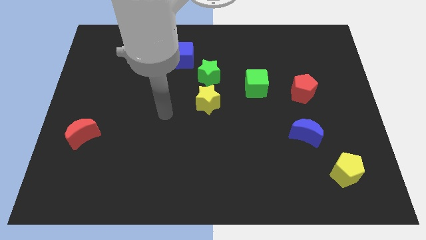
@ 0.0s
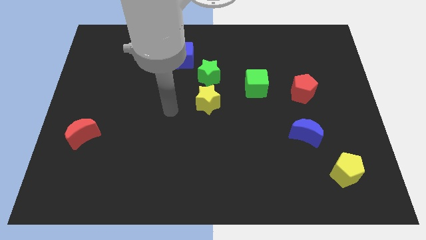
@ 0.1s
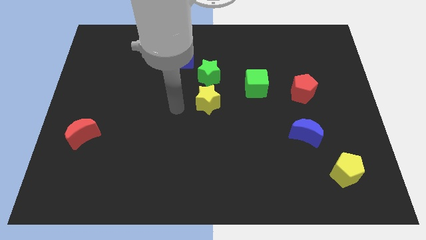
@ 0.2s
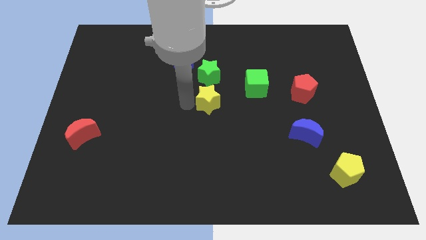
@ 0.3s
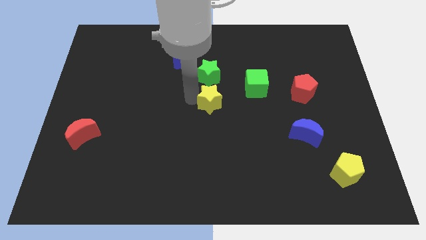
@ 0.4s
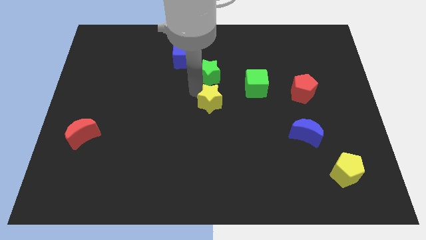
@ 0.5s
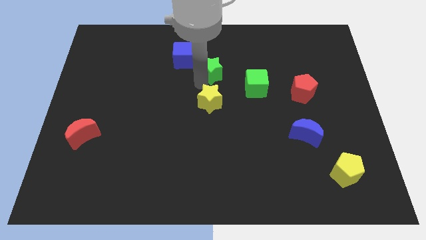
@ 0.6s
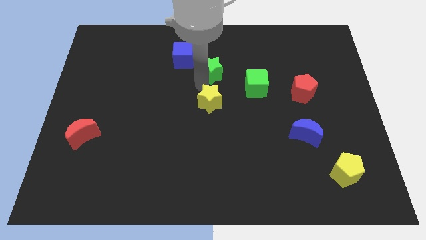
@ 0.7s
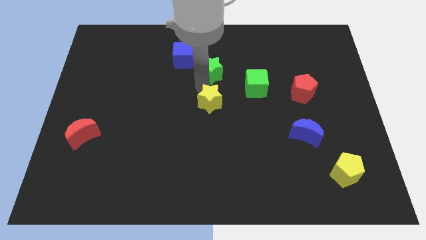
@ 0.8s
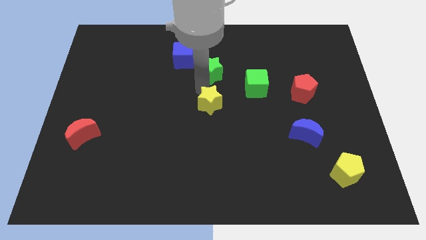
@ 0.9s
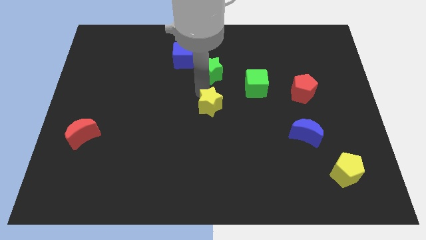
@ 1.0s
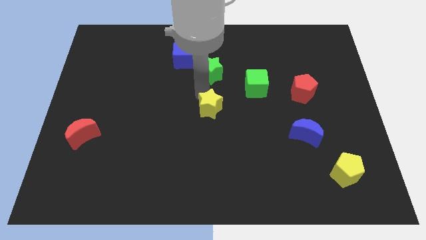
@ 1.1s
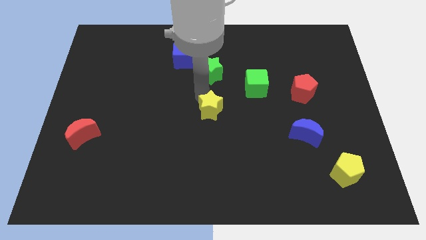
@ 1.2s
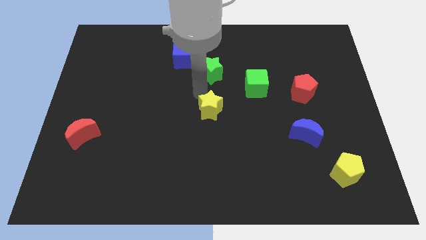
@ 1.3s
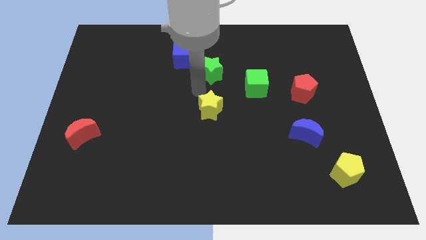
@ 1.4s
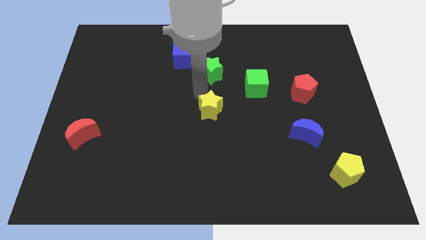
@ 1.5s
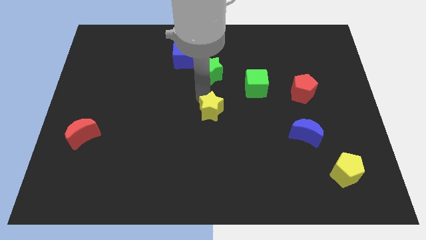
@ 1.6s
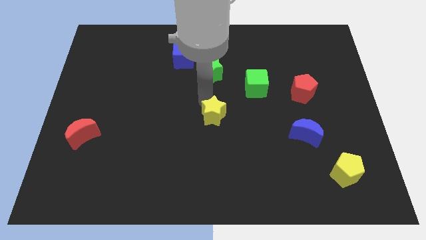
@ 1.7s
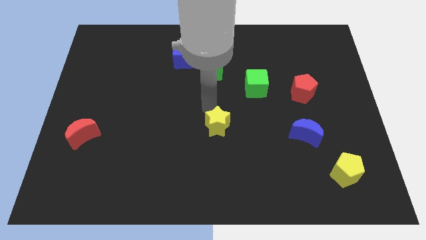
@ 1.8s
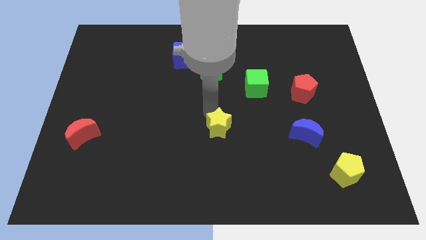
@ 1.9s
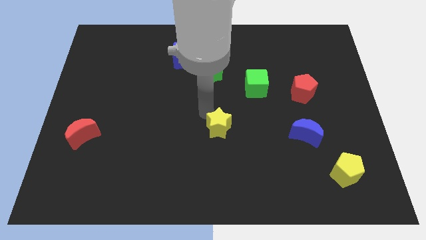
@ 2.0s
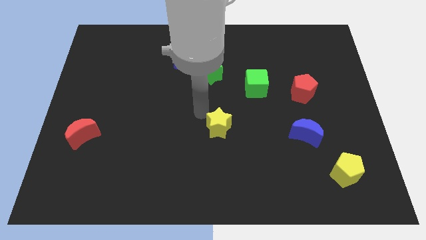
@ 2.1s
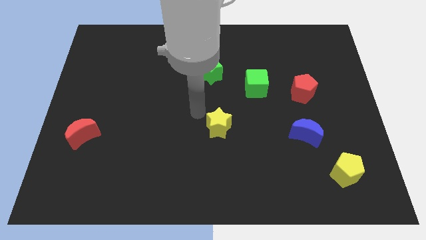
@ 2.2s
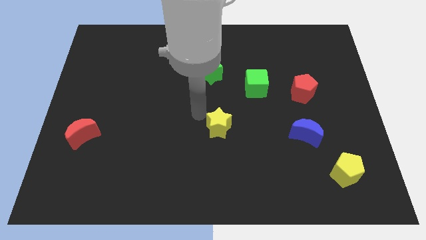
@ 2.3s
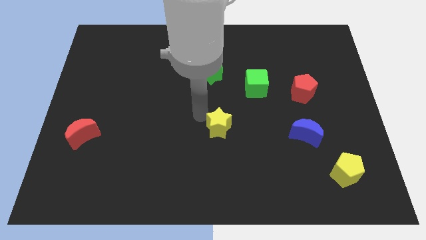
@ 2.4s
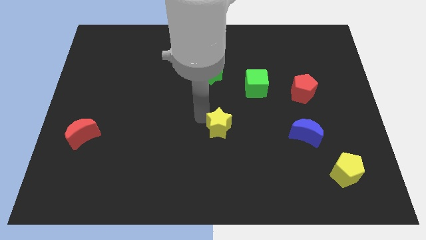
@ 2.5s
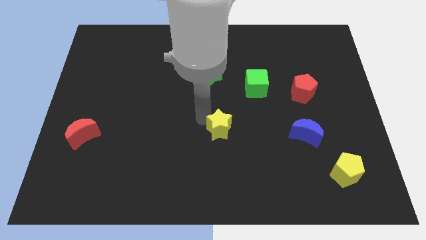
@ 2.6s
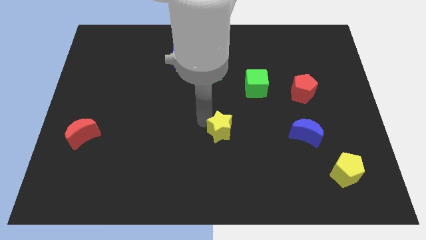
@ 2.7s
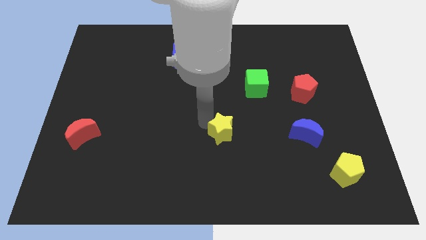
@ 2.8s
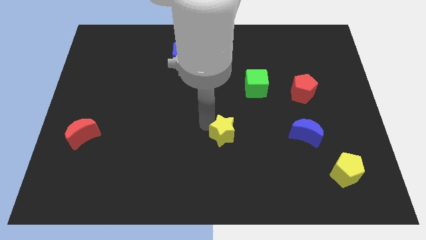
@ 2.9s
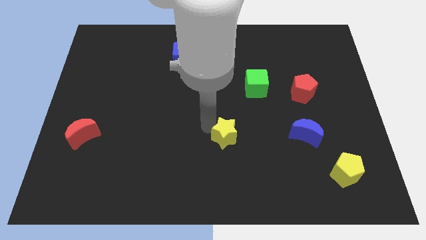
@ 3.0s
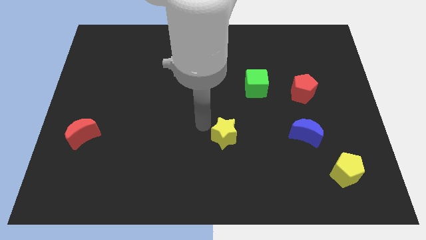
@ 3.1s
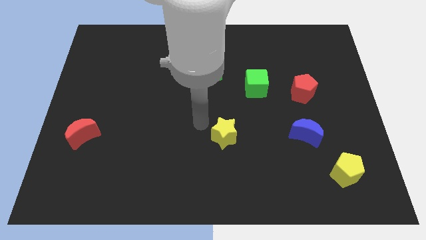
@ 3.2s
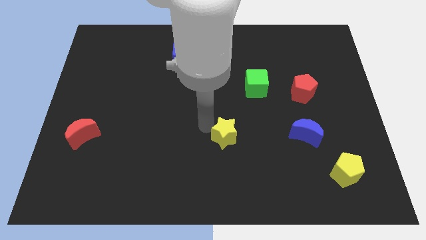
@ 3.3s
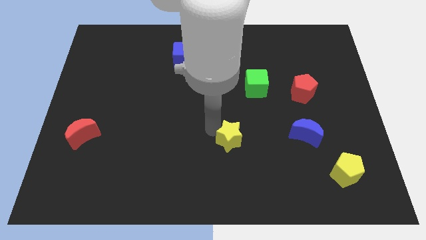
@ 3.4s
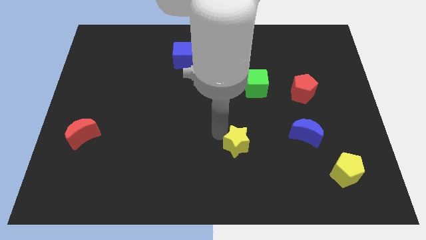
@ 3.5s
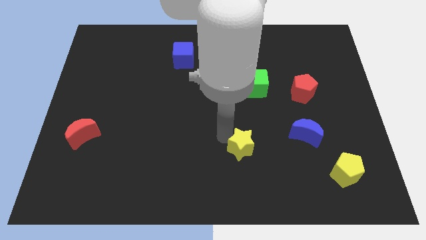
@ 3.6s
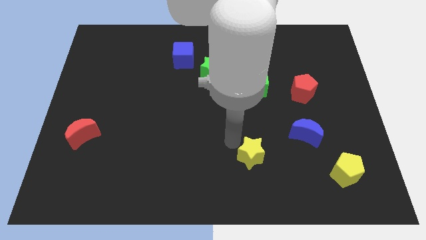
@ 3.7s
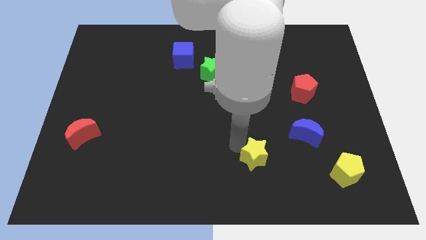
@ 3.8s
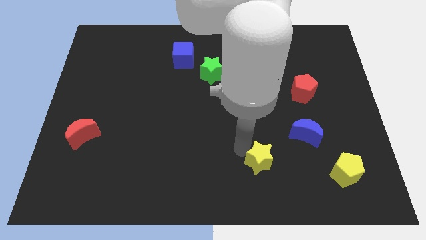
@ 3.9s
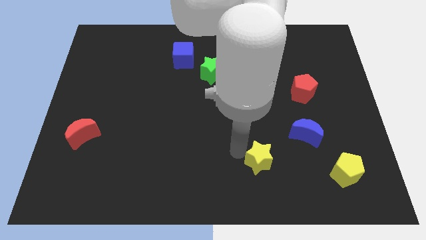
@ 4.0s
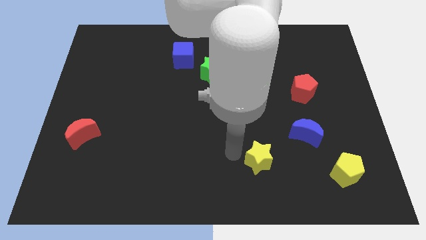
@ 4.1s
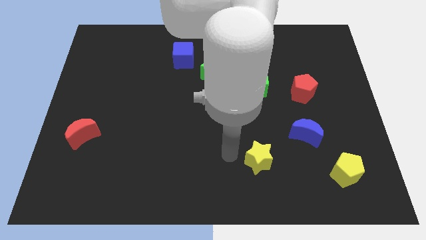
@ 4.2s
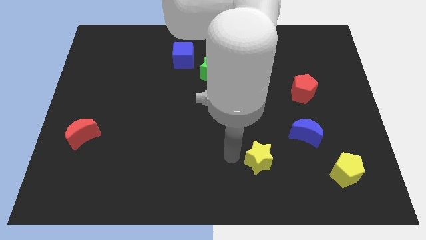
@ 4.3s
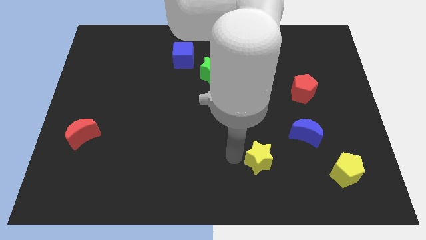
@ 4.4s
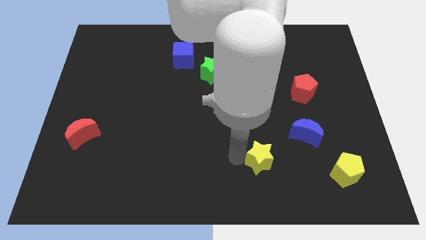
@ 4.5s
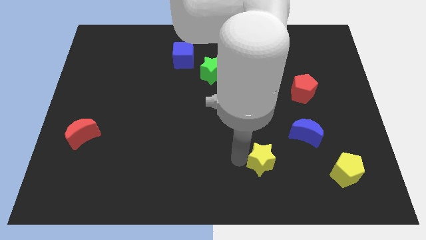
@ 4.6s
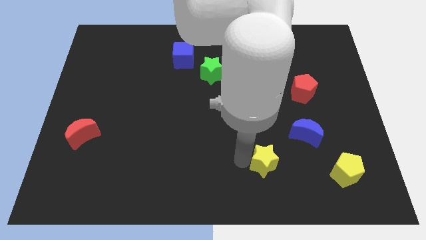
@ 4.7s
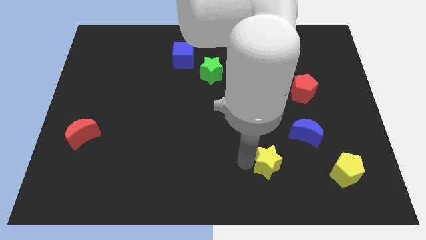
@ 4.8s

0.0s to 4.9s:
put the yellow star left of the yellow pentagon

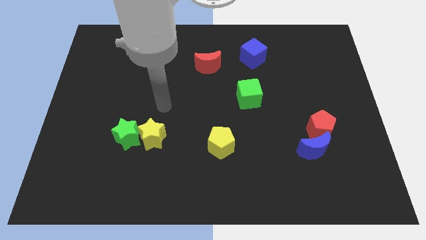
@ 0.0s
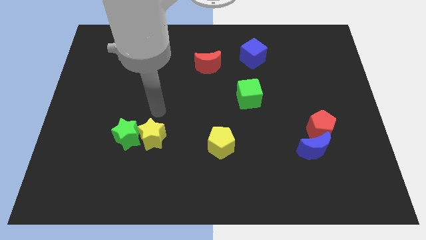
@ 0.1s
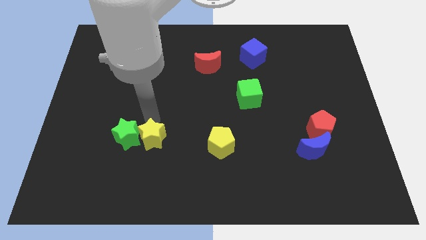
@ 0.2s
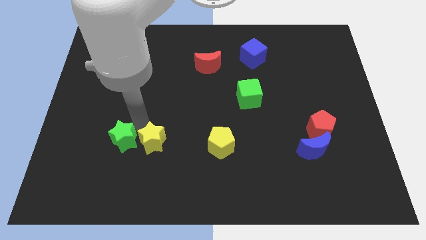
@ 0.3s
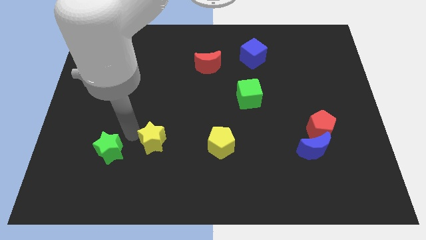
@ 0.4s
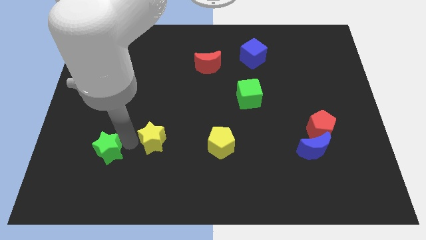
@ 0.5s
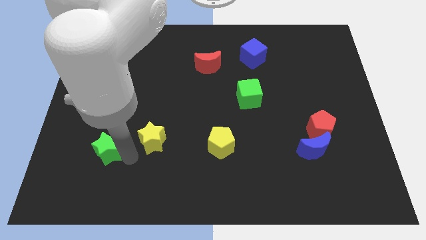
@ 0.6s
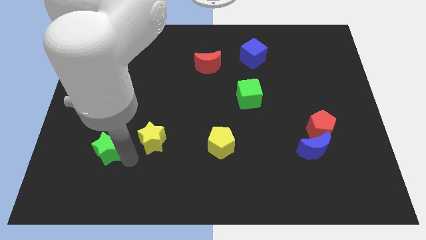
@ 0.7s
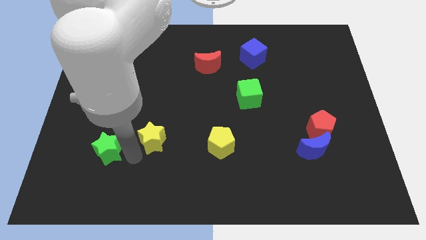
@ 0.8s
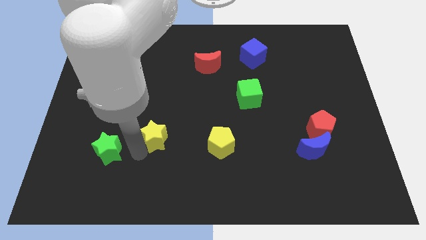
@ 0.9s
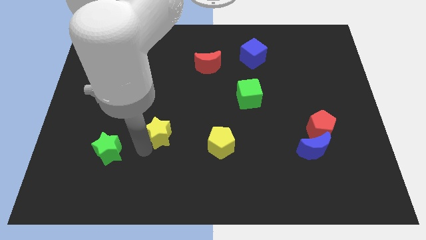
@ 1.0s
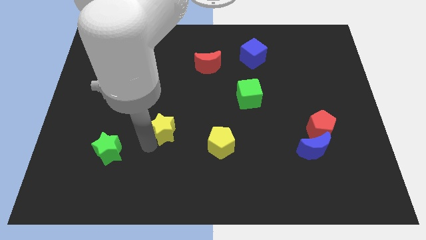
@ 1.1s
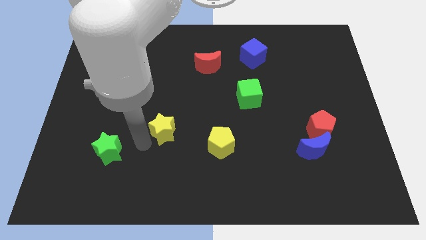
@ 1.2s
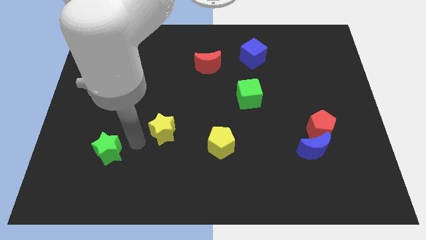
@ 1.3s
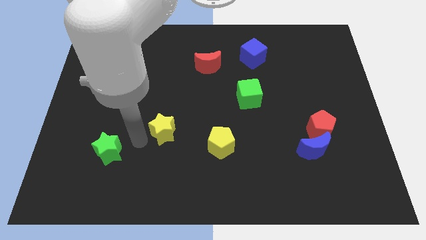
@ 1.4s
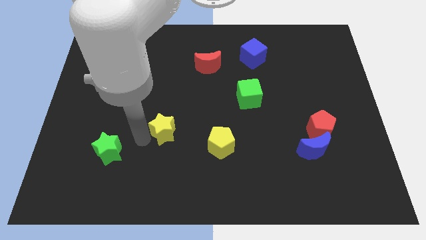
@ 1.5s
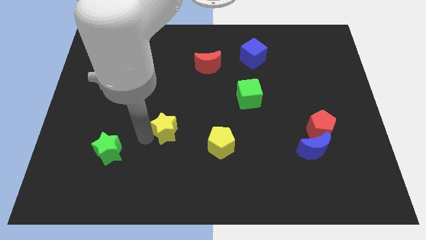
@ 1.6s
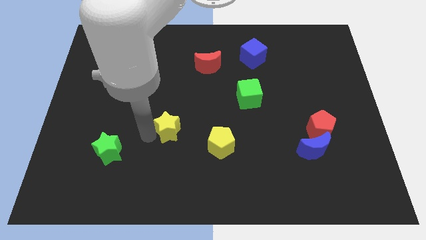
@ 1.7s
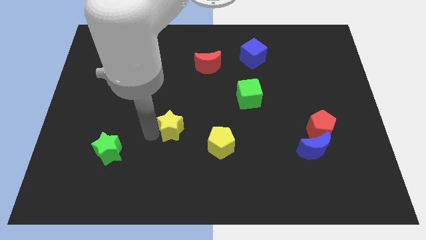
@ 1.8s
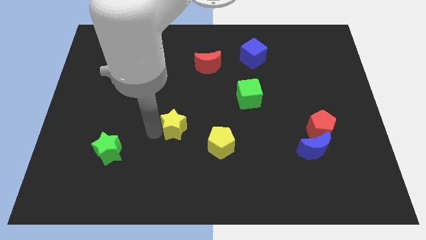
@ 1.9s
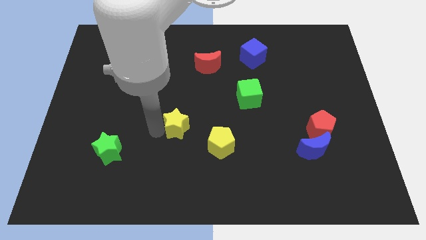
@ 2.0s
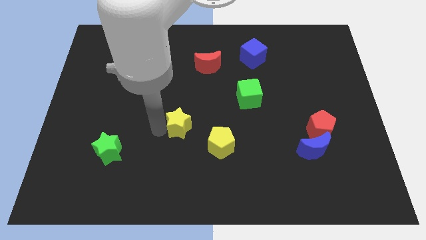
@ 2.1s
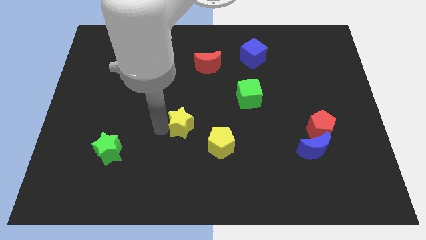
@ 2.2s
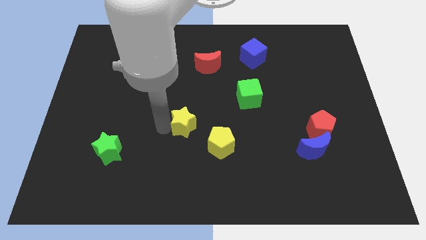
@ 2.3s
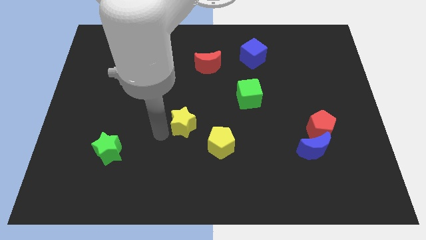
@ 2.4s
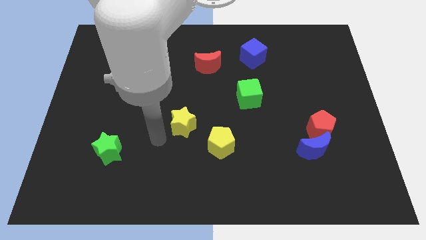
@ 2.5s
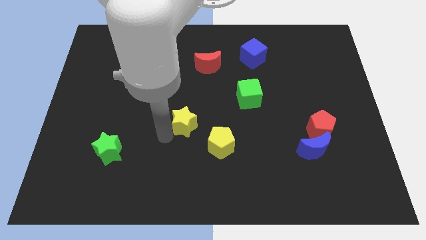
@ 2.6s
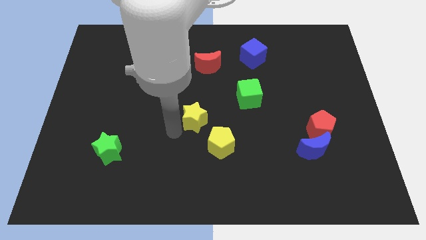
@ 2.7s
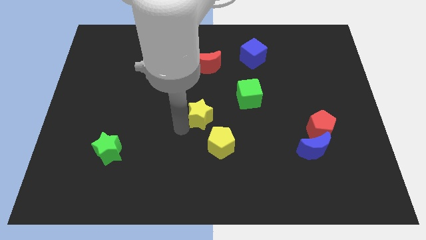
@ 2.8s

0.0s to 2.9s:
push the yellow star to the top side of the yellow pentagon
